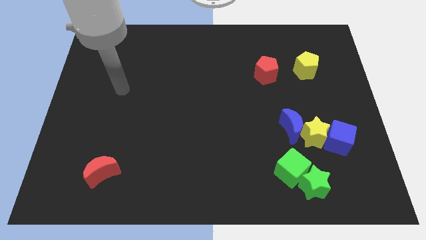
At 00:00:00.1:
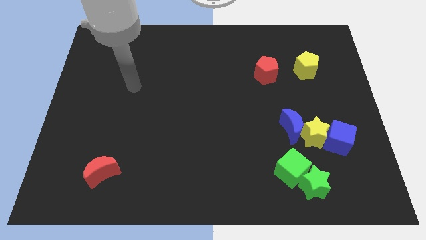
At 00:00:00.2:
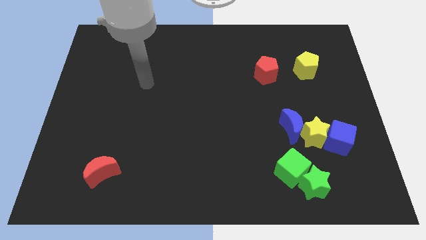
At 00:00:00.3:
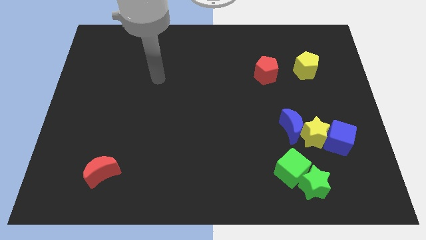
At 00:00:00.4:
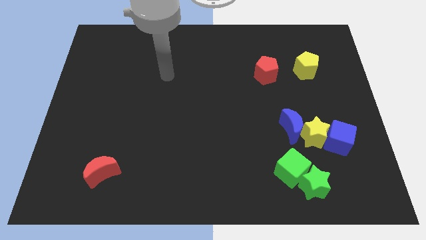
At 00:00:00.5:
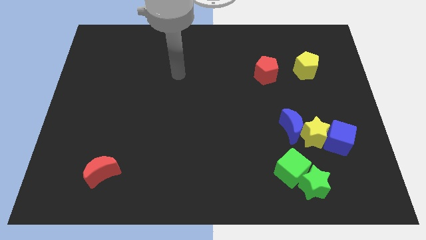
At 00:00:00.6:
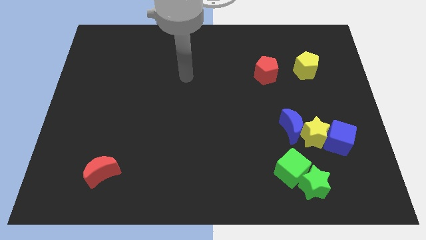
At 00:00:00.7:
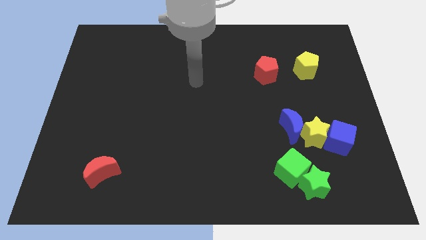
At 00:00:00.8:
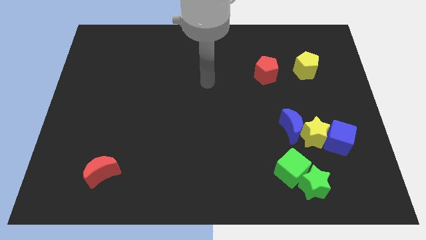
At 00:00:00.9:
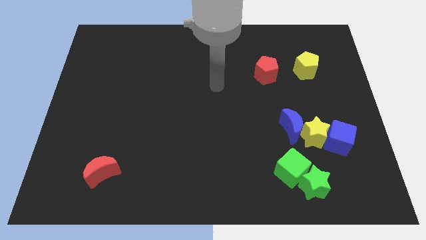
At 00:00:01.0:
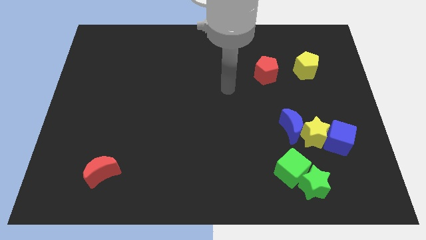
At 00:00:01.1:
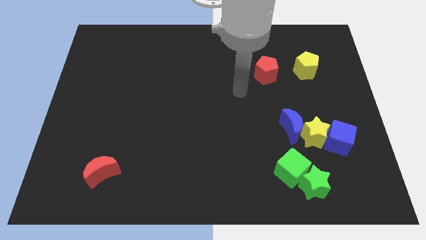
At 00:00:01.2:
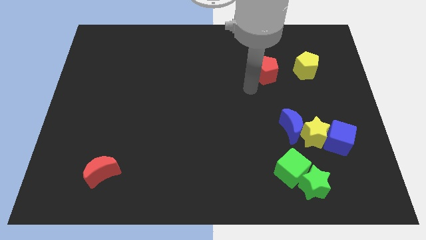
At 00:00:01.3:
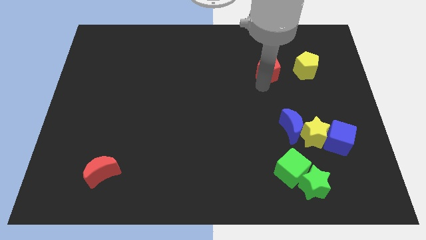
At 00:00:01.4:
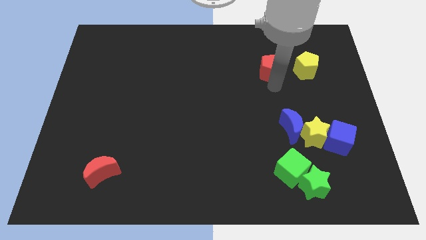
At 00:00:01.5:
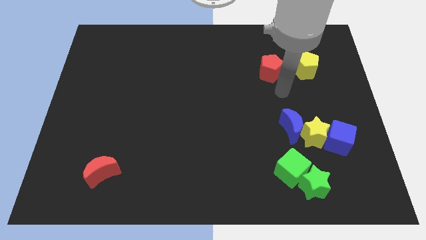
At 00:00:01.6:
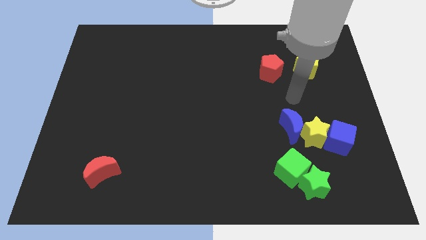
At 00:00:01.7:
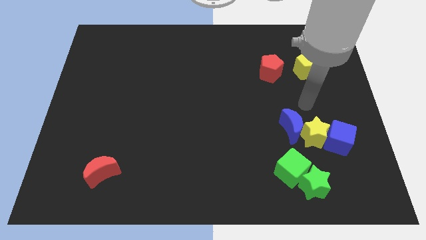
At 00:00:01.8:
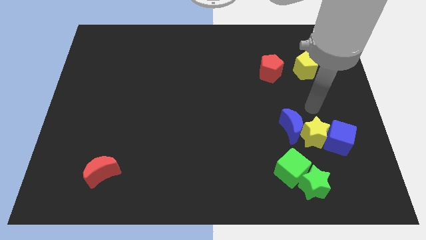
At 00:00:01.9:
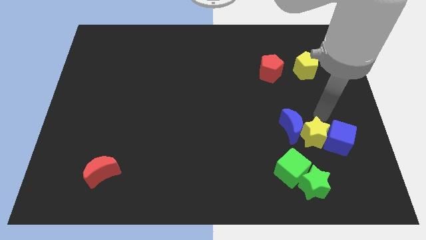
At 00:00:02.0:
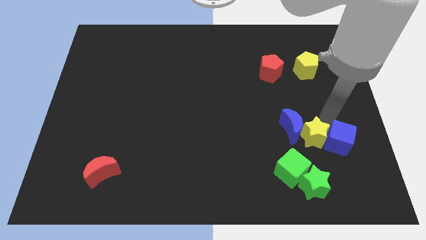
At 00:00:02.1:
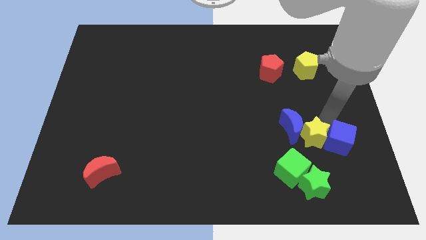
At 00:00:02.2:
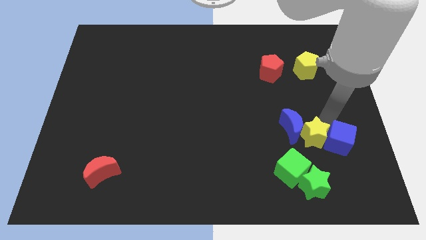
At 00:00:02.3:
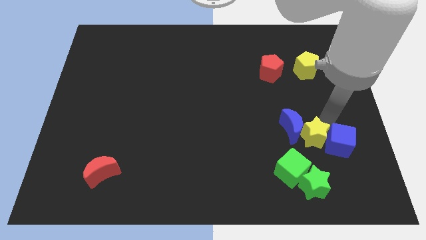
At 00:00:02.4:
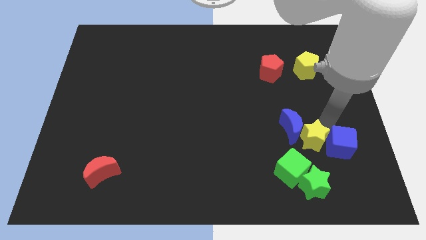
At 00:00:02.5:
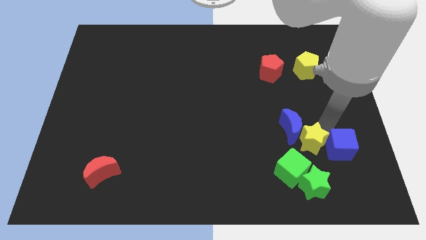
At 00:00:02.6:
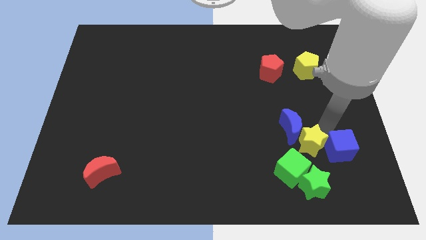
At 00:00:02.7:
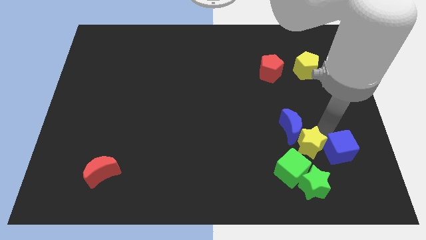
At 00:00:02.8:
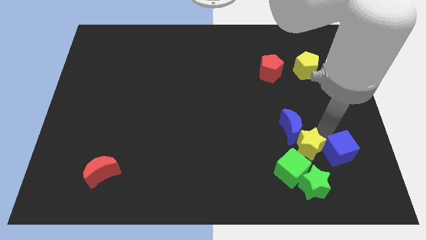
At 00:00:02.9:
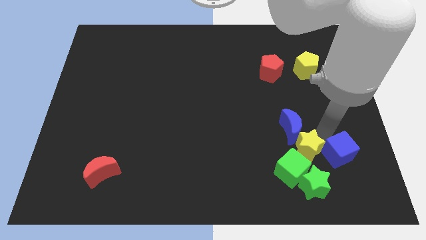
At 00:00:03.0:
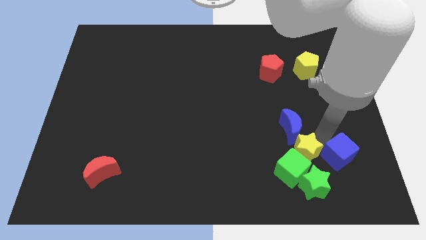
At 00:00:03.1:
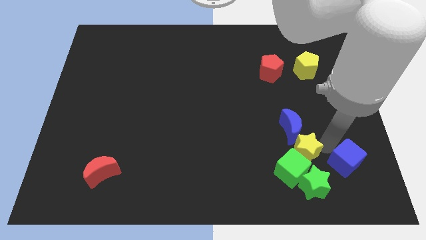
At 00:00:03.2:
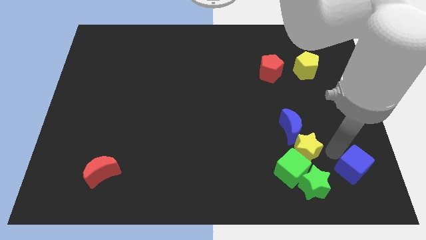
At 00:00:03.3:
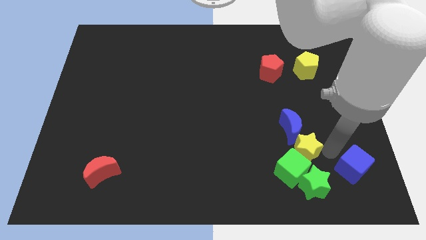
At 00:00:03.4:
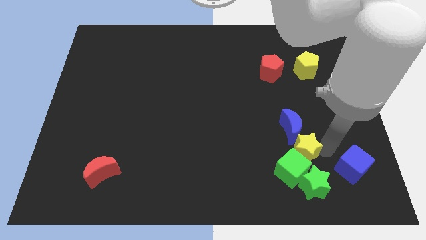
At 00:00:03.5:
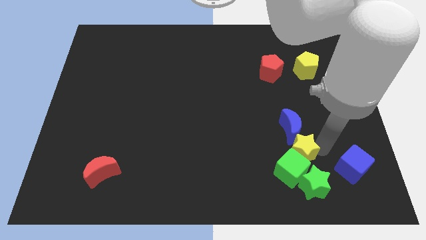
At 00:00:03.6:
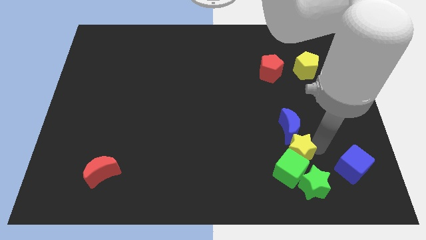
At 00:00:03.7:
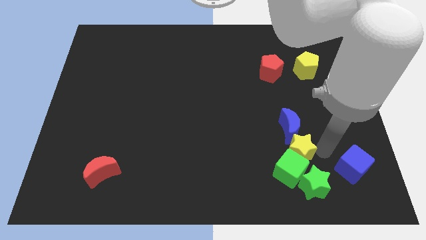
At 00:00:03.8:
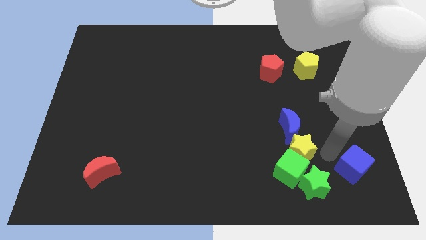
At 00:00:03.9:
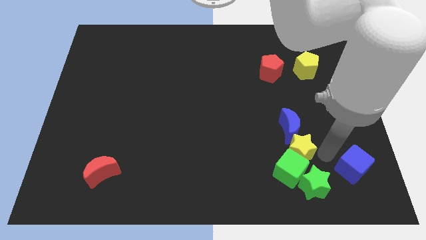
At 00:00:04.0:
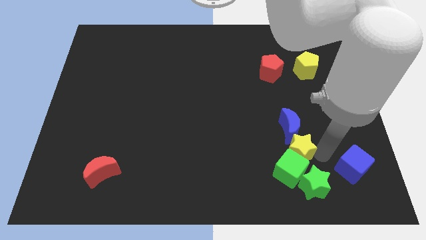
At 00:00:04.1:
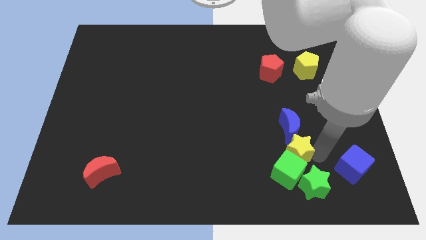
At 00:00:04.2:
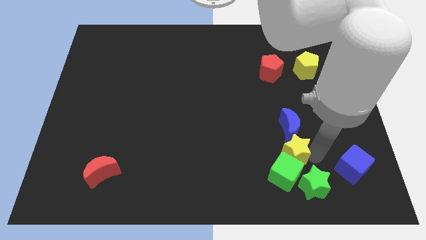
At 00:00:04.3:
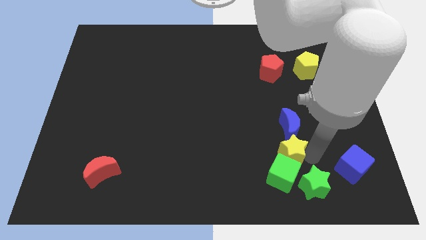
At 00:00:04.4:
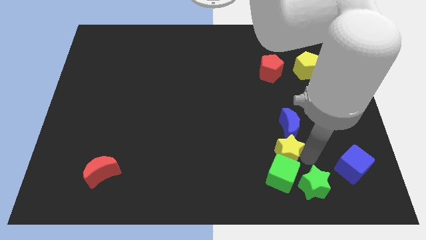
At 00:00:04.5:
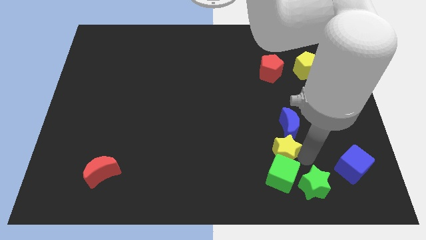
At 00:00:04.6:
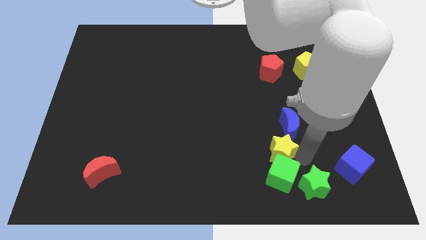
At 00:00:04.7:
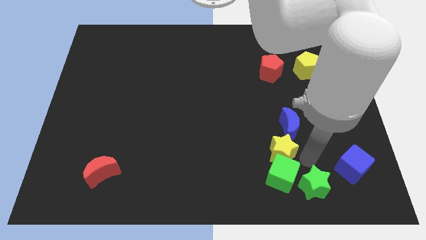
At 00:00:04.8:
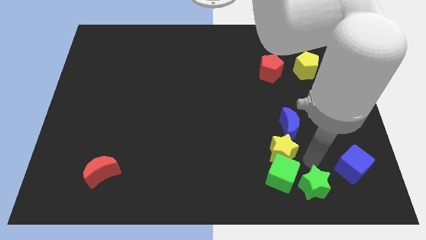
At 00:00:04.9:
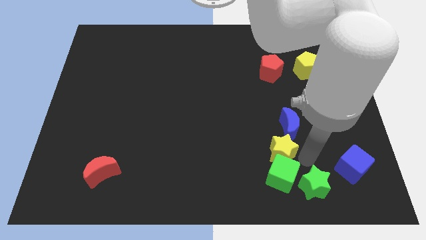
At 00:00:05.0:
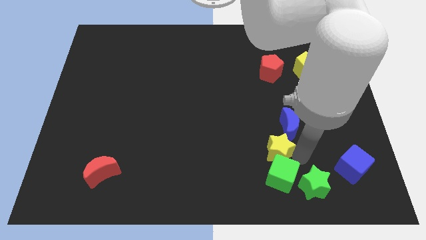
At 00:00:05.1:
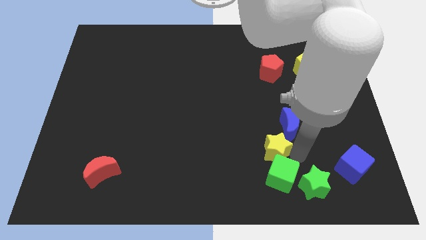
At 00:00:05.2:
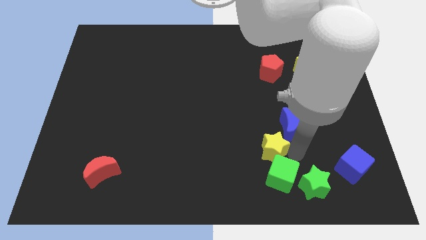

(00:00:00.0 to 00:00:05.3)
separate the yellow star from the blue moon and blue cube

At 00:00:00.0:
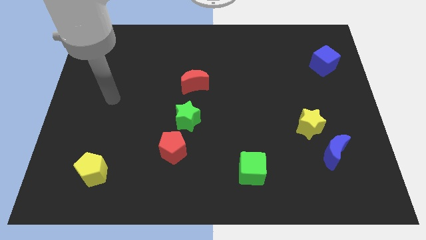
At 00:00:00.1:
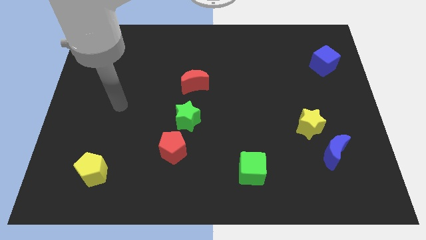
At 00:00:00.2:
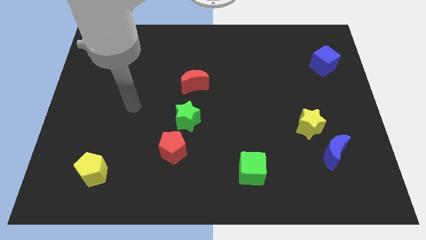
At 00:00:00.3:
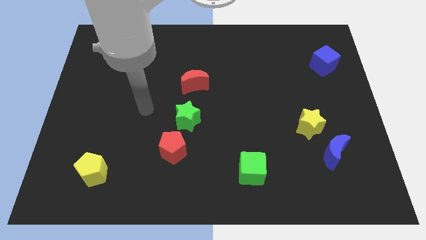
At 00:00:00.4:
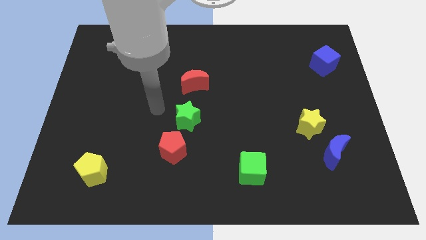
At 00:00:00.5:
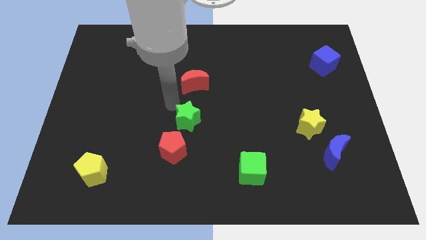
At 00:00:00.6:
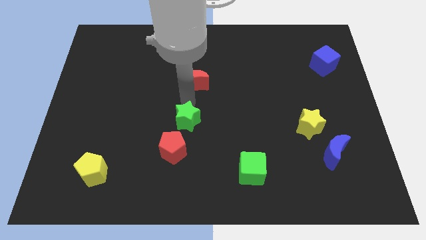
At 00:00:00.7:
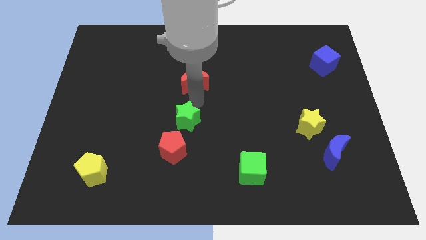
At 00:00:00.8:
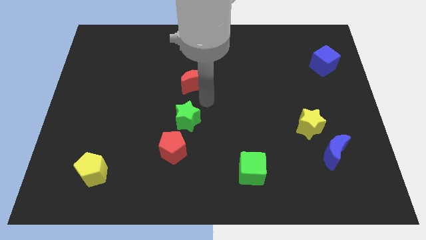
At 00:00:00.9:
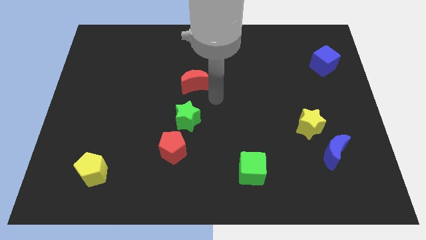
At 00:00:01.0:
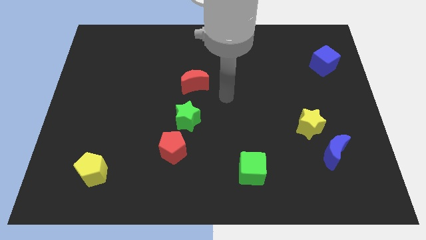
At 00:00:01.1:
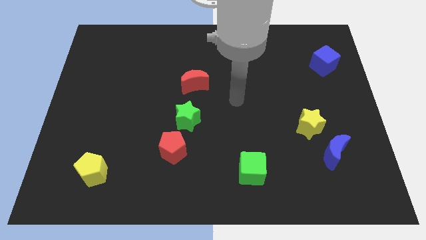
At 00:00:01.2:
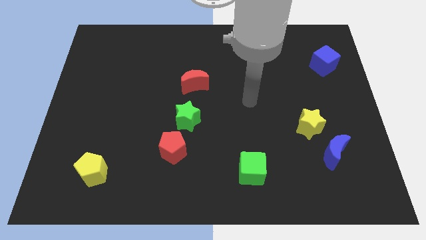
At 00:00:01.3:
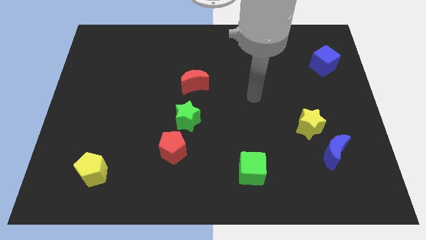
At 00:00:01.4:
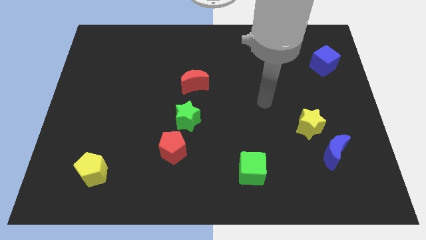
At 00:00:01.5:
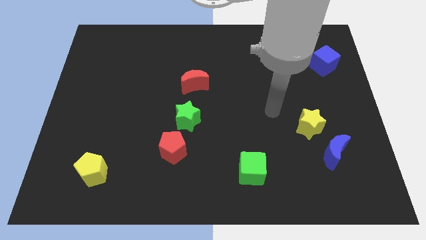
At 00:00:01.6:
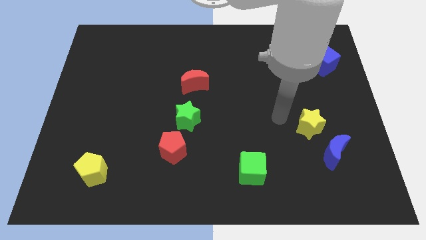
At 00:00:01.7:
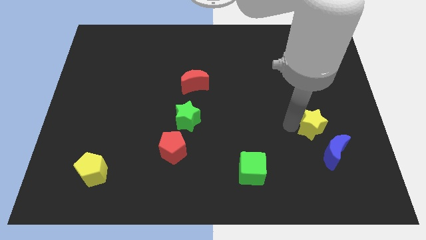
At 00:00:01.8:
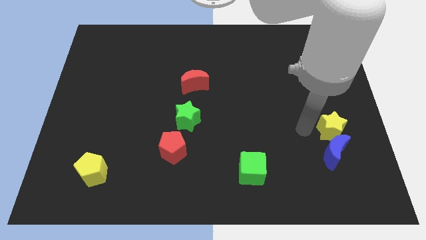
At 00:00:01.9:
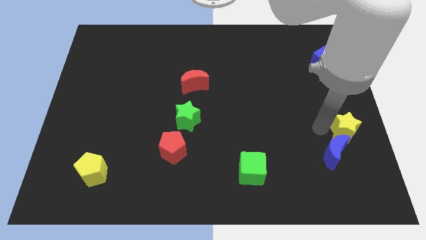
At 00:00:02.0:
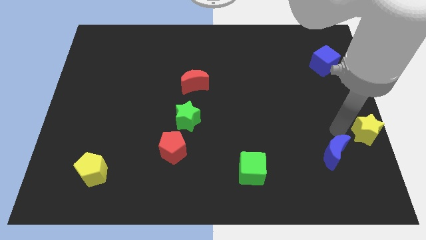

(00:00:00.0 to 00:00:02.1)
pull the blue moon apart from the yellow star

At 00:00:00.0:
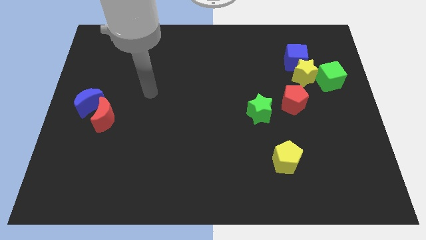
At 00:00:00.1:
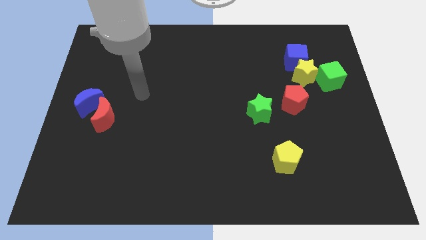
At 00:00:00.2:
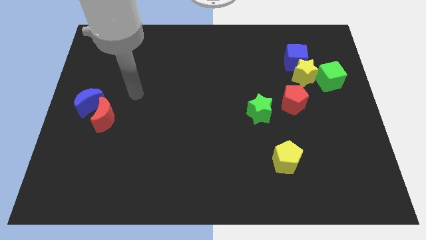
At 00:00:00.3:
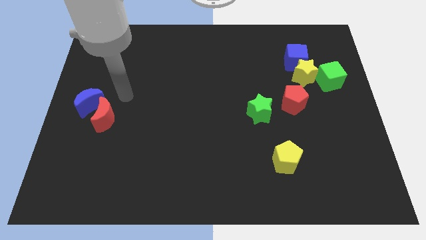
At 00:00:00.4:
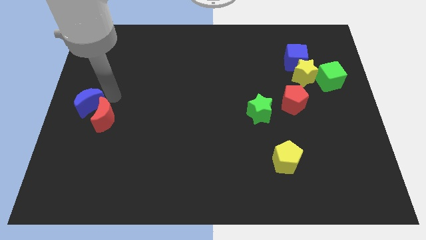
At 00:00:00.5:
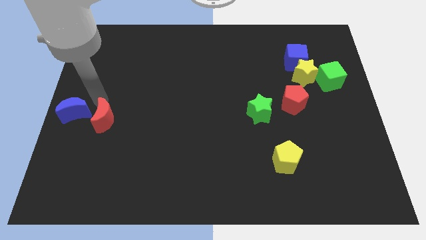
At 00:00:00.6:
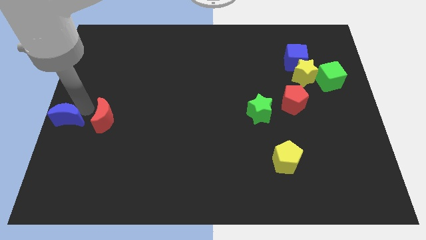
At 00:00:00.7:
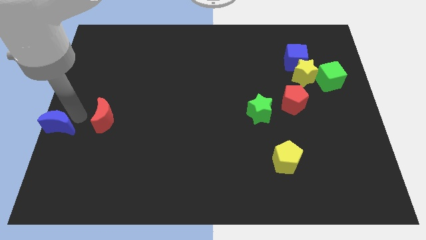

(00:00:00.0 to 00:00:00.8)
separate the red moon from the blue moon

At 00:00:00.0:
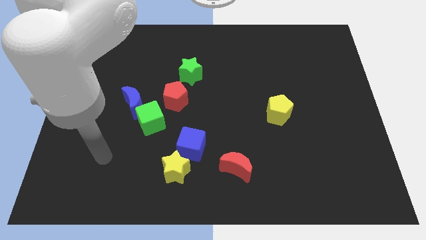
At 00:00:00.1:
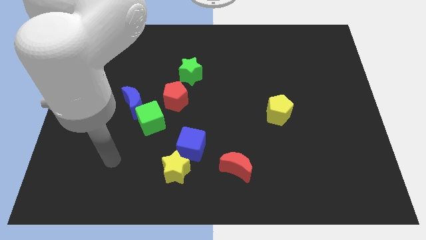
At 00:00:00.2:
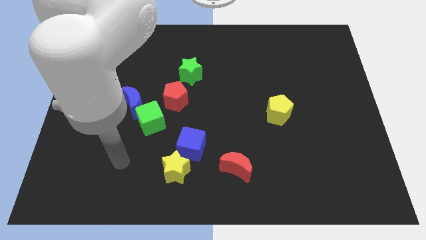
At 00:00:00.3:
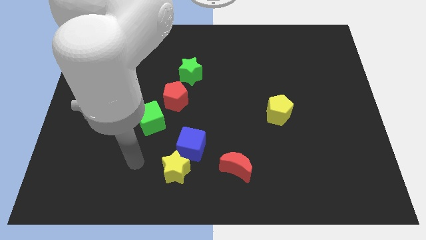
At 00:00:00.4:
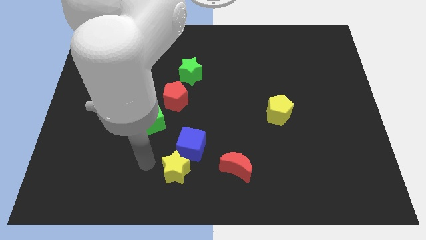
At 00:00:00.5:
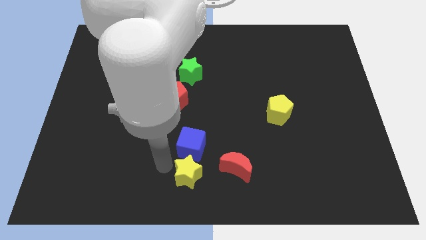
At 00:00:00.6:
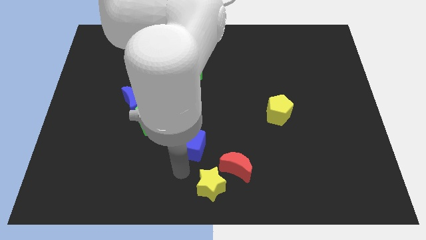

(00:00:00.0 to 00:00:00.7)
separate the blue cube from the yellow star

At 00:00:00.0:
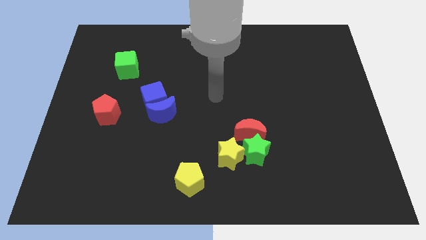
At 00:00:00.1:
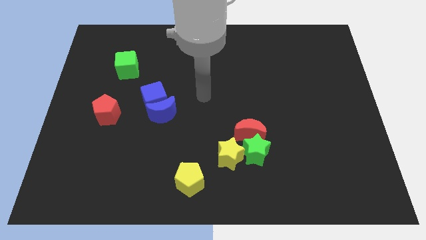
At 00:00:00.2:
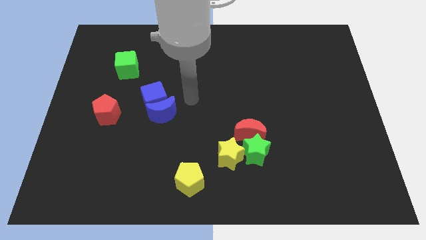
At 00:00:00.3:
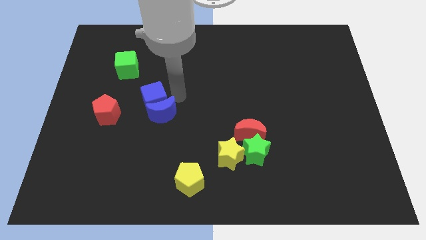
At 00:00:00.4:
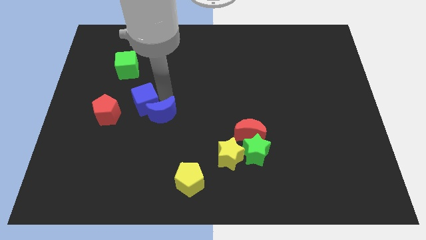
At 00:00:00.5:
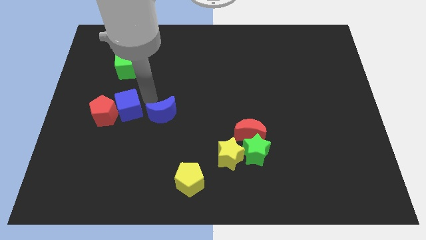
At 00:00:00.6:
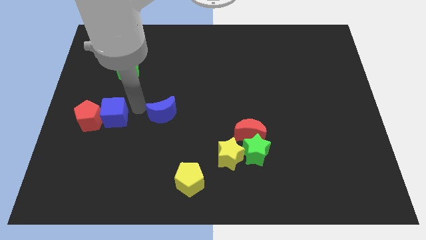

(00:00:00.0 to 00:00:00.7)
separate the blue moon from the blue cube
